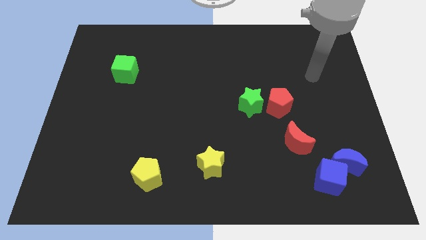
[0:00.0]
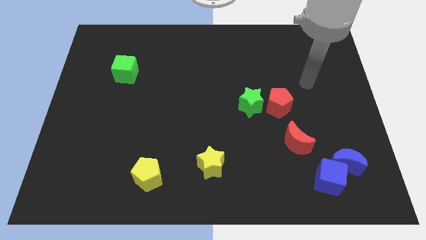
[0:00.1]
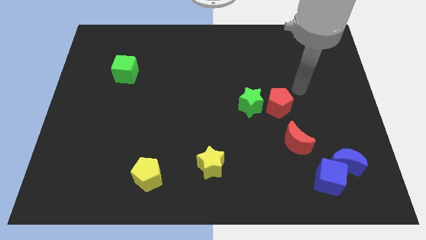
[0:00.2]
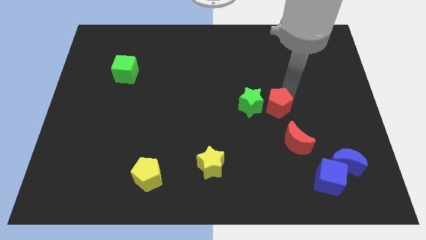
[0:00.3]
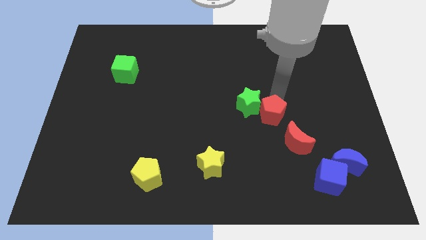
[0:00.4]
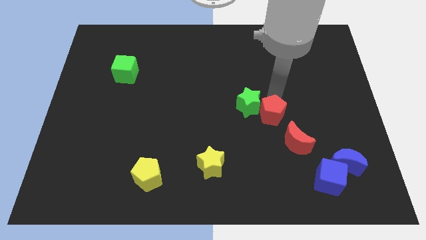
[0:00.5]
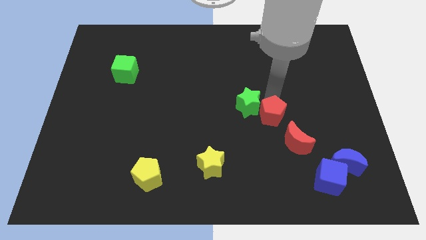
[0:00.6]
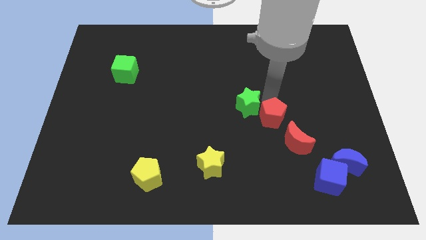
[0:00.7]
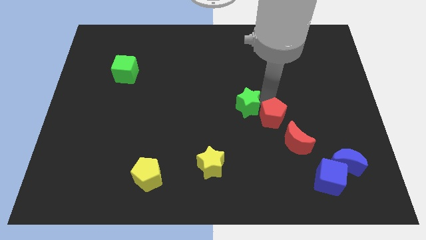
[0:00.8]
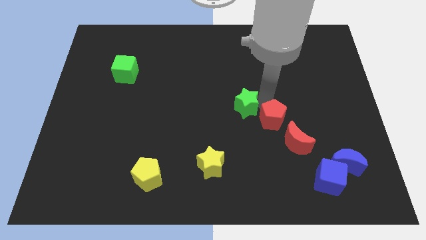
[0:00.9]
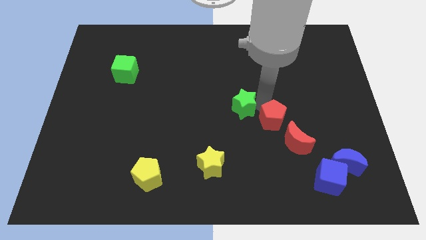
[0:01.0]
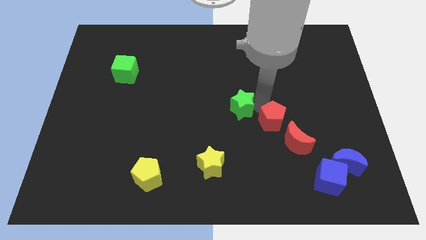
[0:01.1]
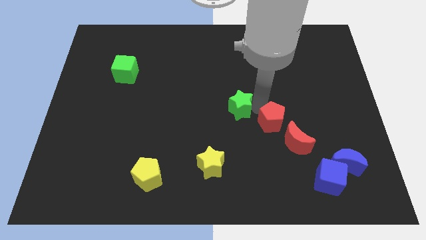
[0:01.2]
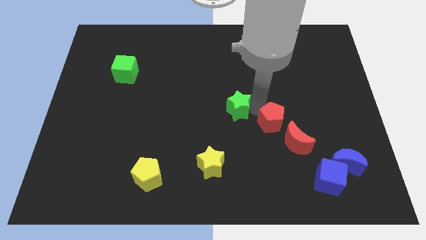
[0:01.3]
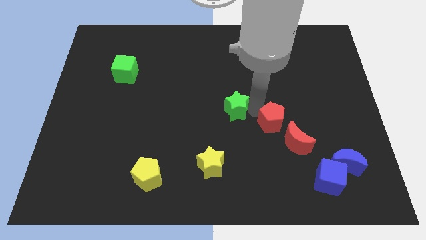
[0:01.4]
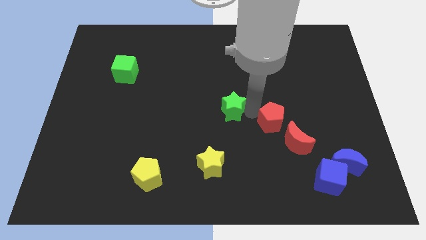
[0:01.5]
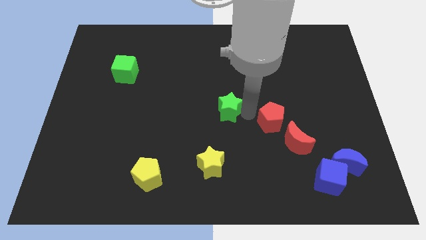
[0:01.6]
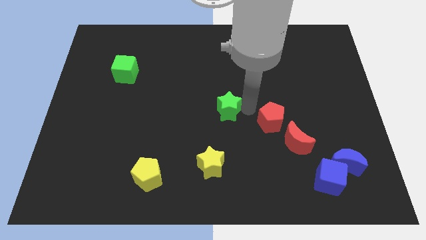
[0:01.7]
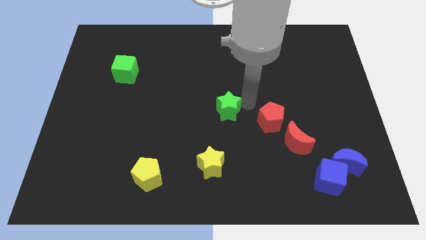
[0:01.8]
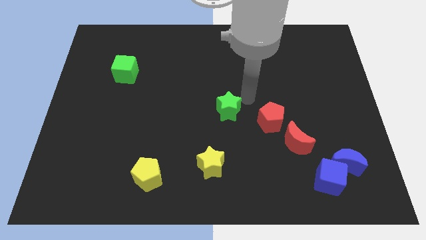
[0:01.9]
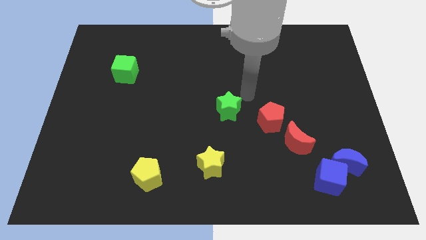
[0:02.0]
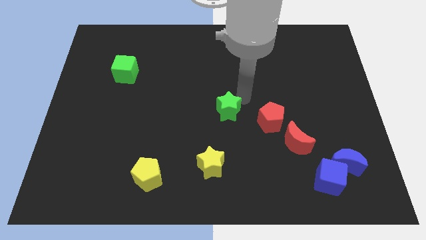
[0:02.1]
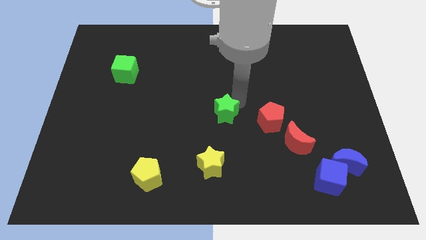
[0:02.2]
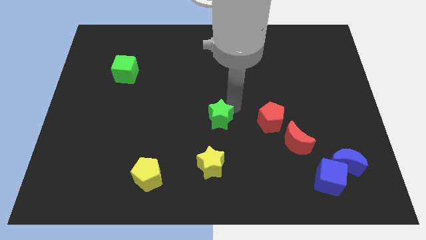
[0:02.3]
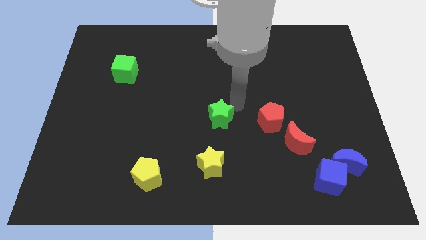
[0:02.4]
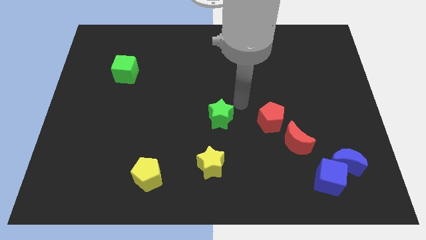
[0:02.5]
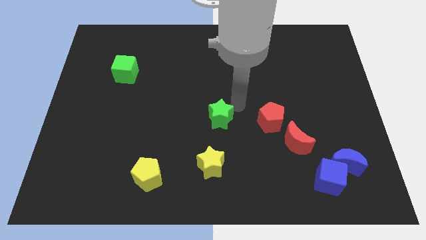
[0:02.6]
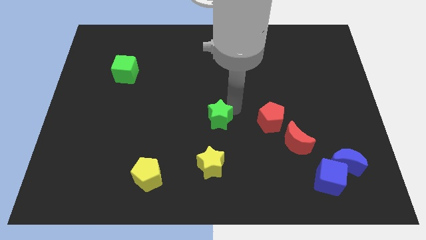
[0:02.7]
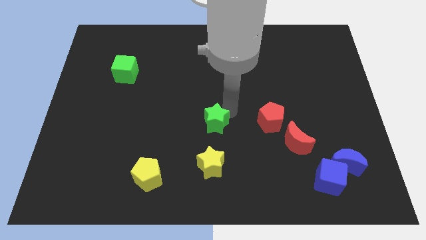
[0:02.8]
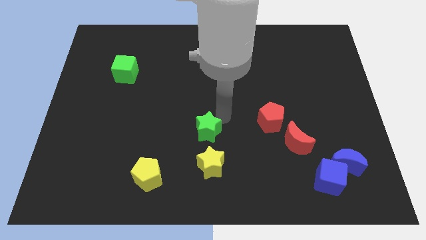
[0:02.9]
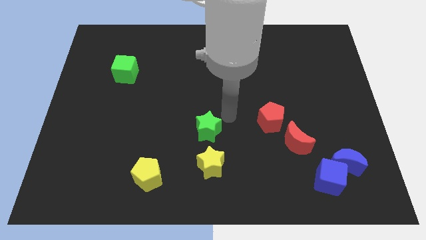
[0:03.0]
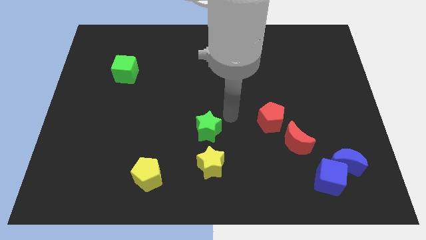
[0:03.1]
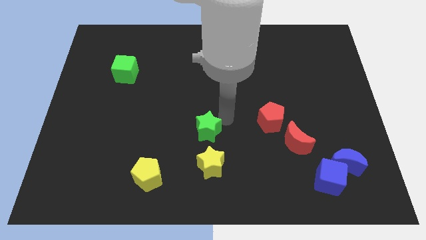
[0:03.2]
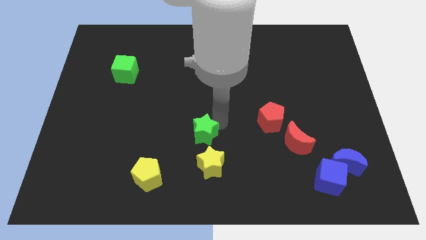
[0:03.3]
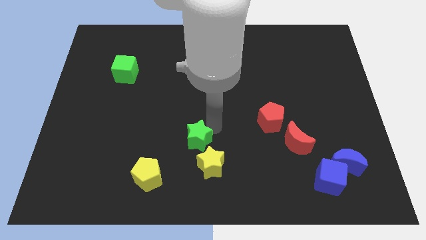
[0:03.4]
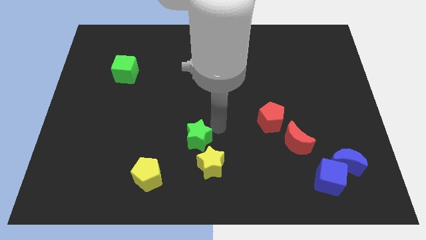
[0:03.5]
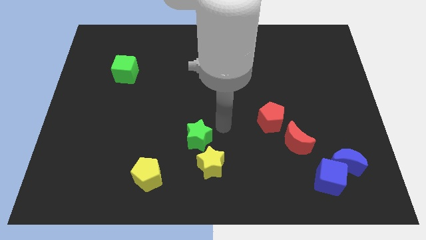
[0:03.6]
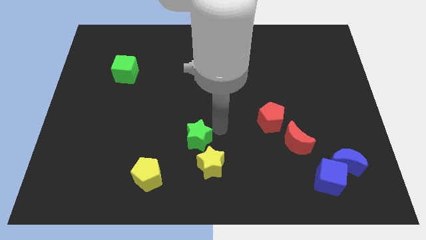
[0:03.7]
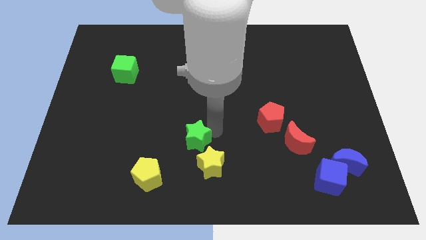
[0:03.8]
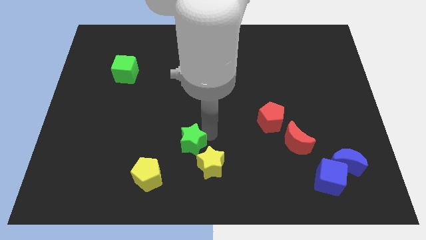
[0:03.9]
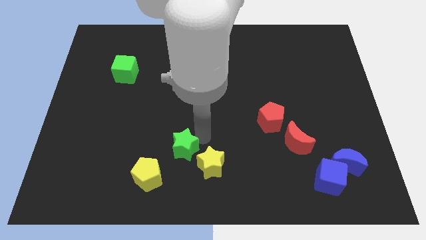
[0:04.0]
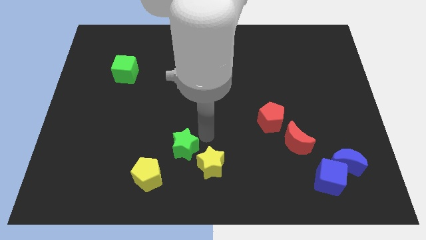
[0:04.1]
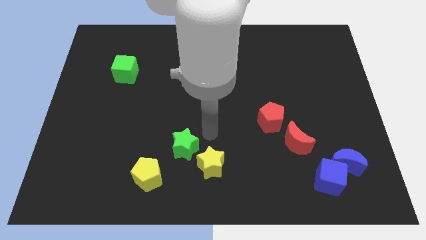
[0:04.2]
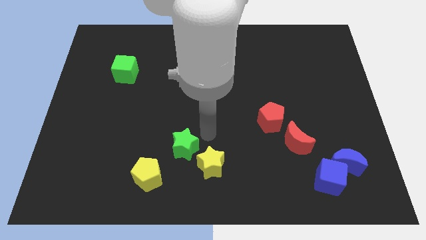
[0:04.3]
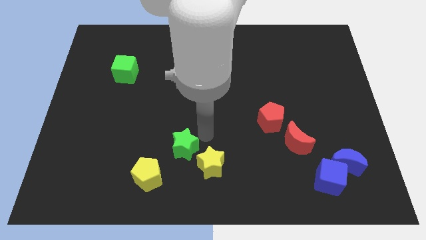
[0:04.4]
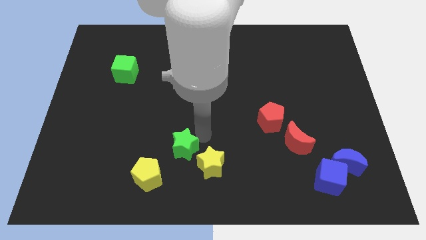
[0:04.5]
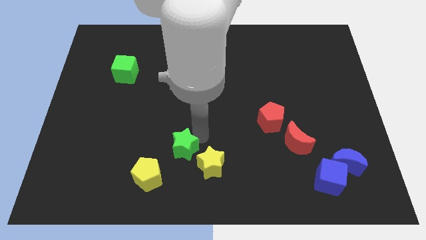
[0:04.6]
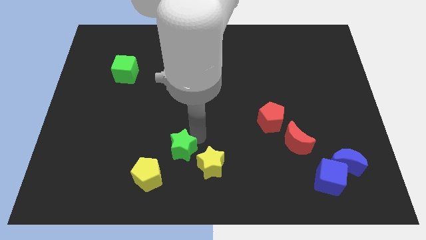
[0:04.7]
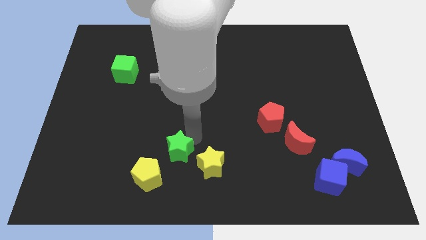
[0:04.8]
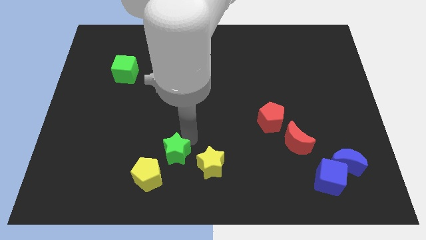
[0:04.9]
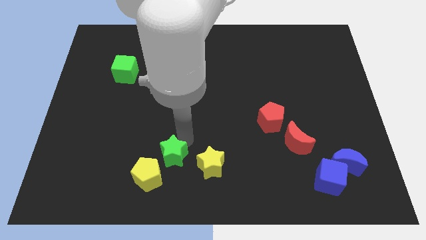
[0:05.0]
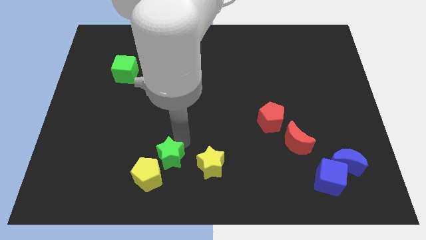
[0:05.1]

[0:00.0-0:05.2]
slide the green star next to the yellow pentagon

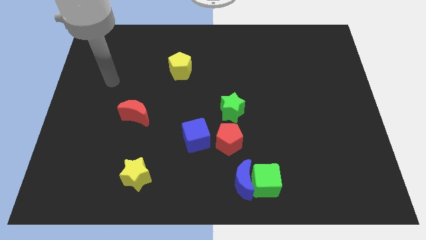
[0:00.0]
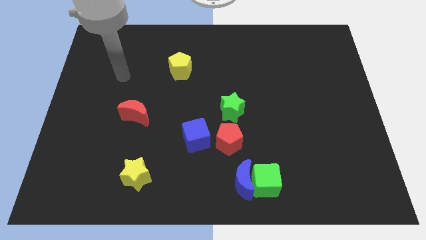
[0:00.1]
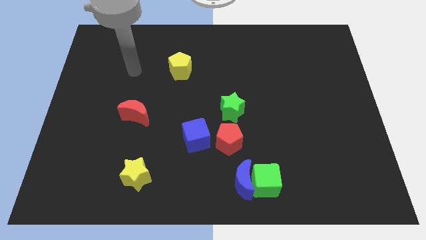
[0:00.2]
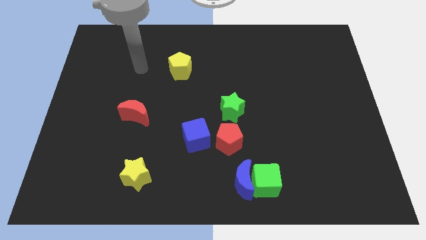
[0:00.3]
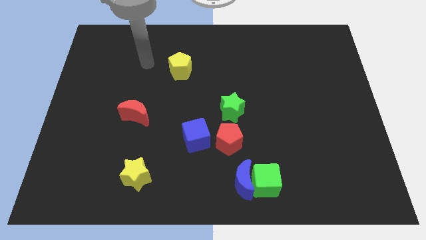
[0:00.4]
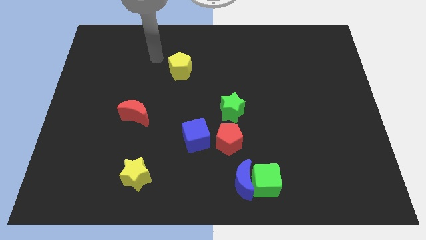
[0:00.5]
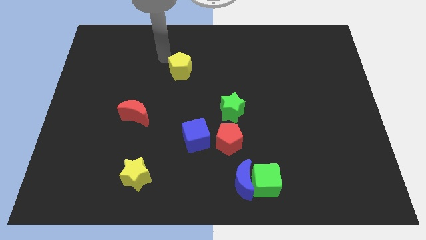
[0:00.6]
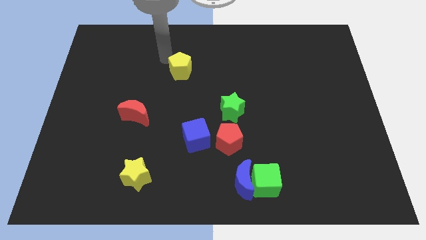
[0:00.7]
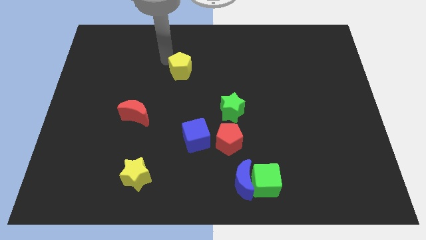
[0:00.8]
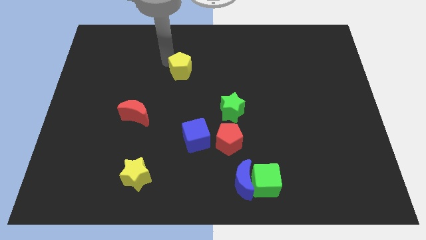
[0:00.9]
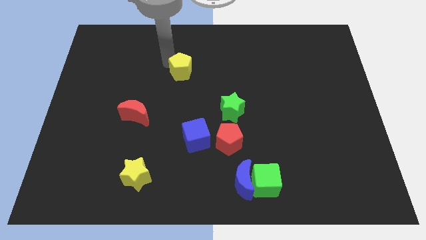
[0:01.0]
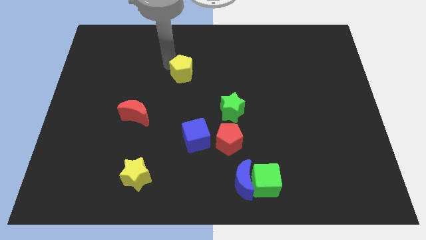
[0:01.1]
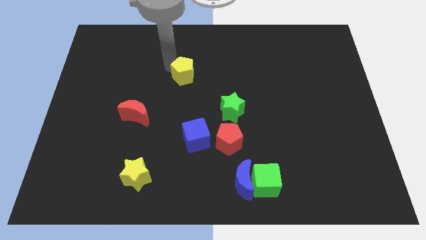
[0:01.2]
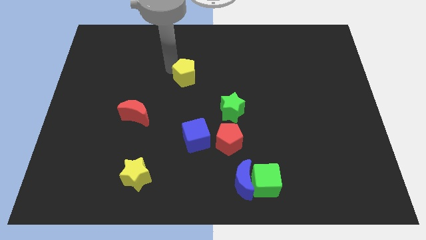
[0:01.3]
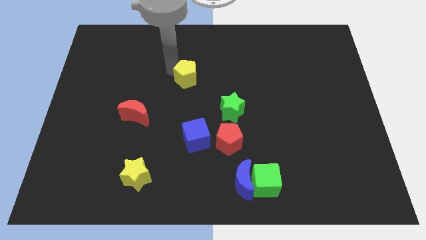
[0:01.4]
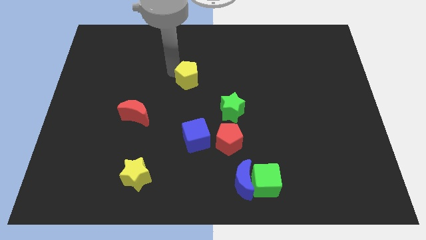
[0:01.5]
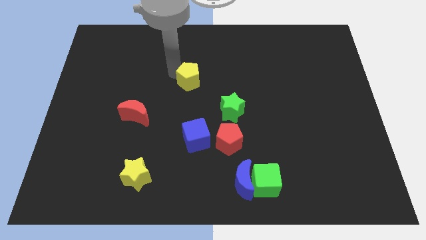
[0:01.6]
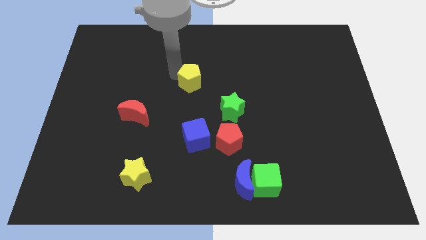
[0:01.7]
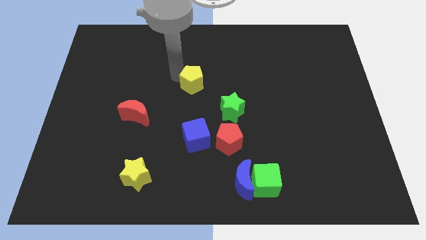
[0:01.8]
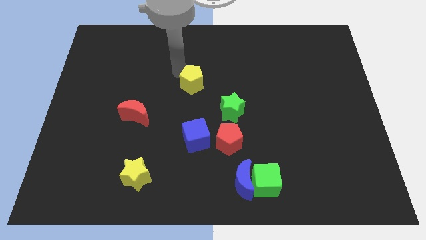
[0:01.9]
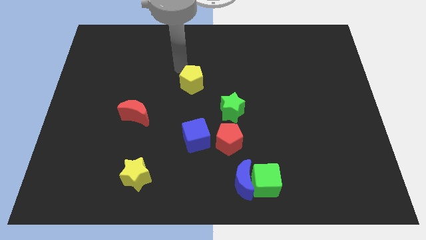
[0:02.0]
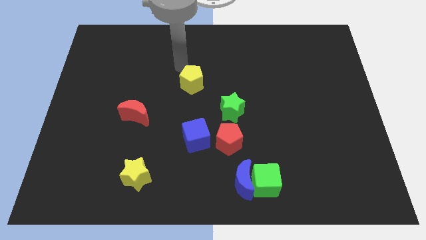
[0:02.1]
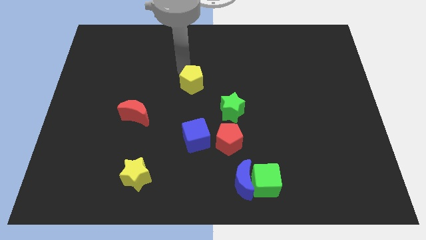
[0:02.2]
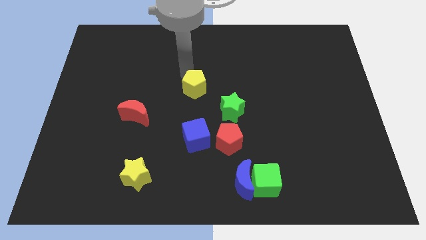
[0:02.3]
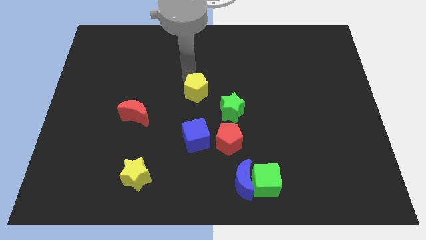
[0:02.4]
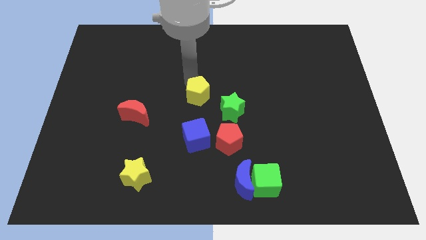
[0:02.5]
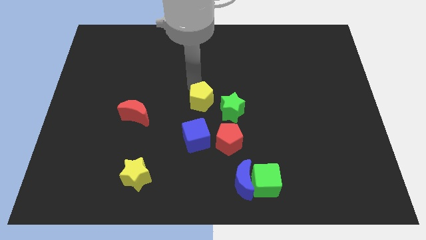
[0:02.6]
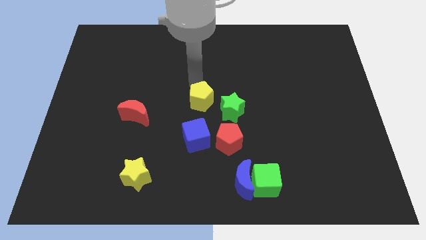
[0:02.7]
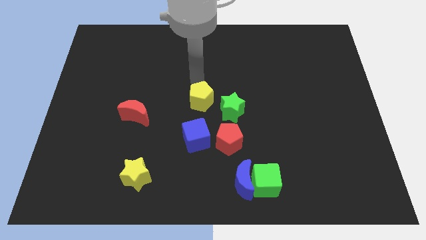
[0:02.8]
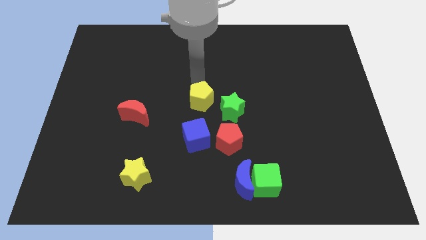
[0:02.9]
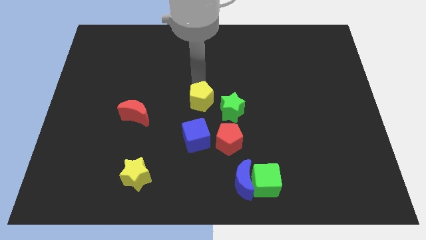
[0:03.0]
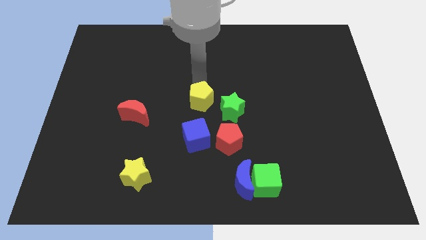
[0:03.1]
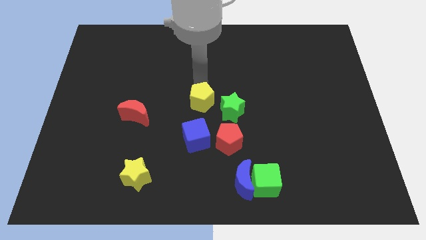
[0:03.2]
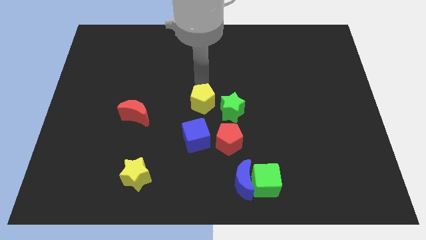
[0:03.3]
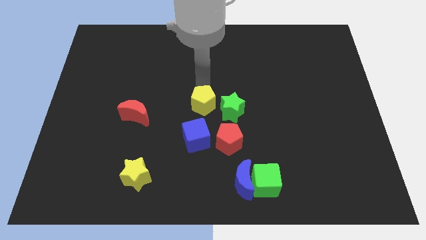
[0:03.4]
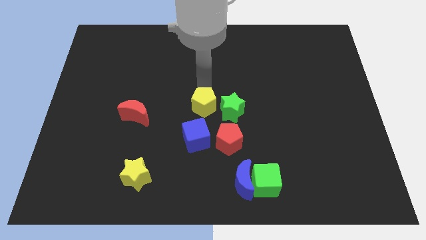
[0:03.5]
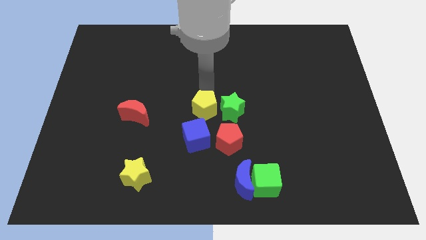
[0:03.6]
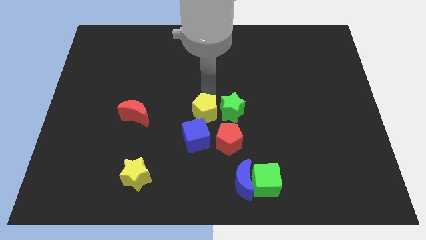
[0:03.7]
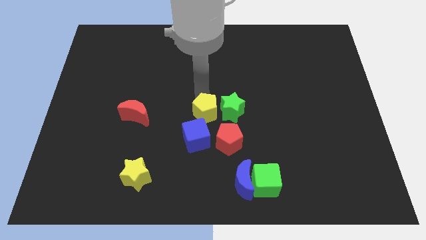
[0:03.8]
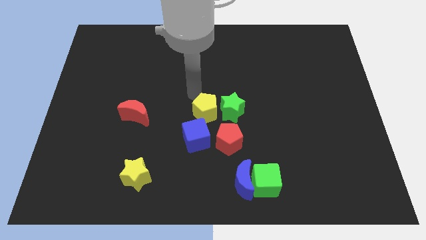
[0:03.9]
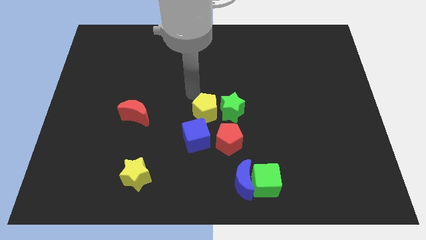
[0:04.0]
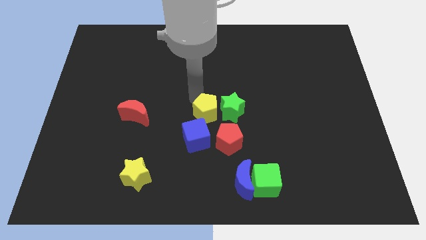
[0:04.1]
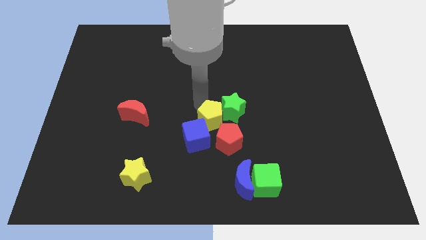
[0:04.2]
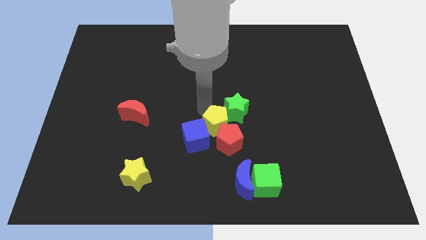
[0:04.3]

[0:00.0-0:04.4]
slide the yellow pentagon towards the red pentagon
